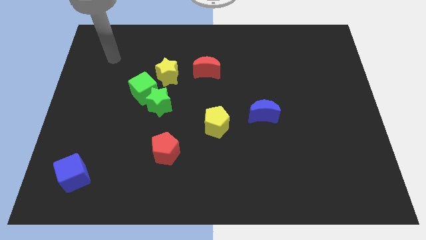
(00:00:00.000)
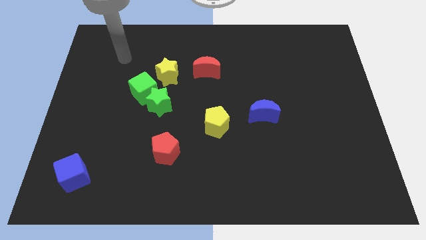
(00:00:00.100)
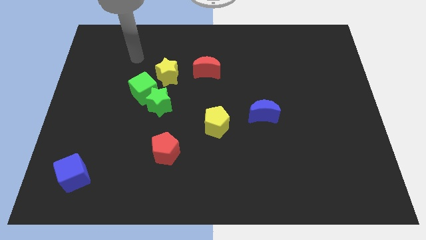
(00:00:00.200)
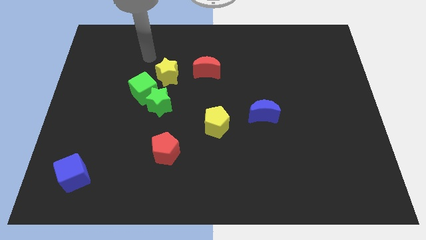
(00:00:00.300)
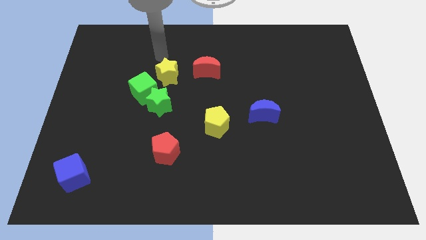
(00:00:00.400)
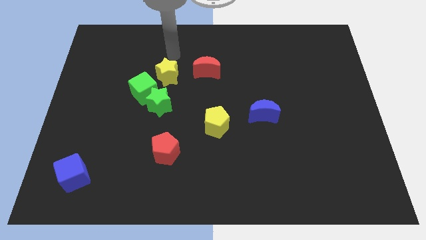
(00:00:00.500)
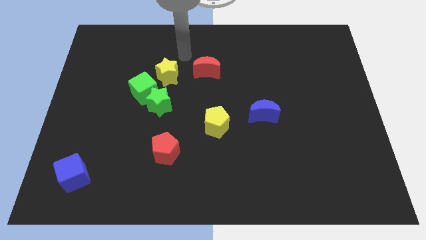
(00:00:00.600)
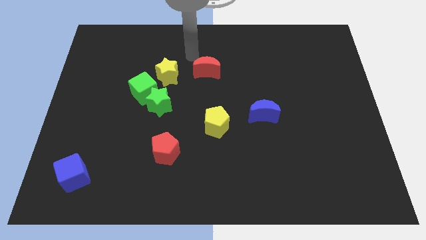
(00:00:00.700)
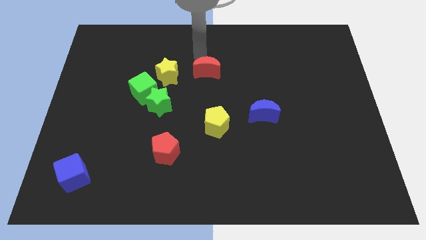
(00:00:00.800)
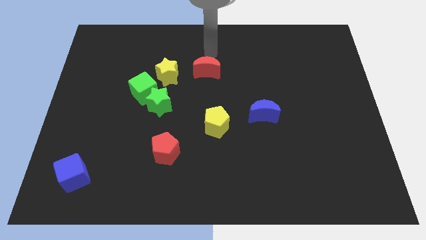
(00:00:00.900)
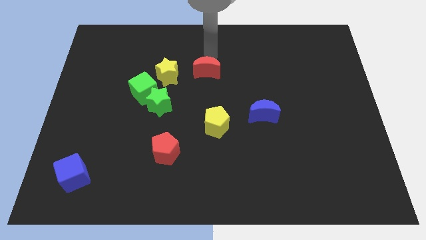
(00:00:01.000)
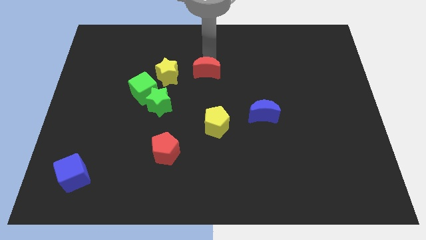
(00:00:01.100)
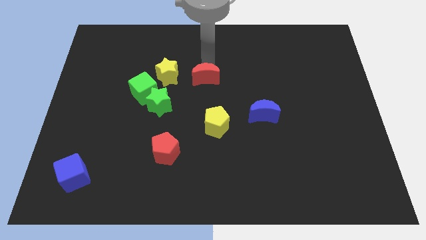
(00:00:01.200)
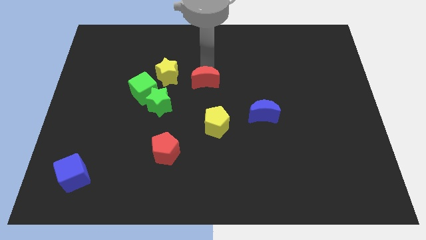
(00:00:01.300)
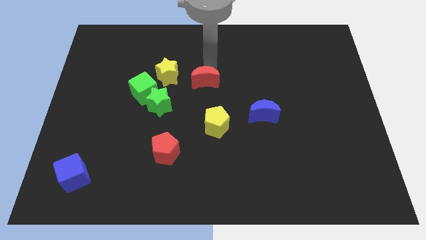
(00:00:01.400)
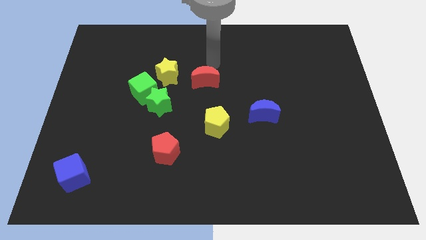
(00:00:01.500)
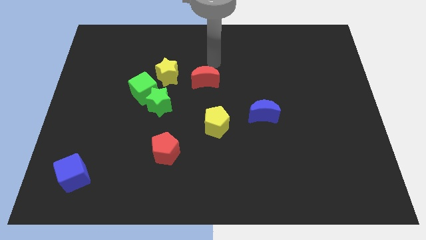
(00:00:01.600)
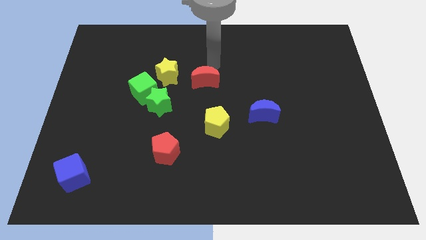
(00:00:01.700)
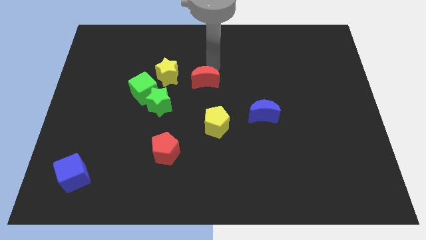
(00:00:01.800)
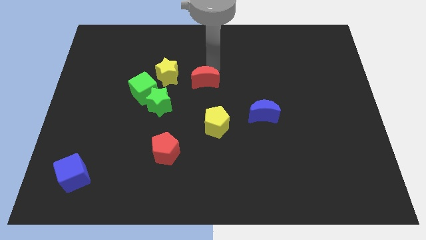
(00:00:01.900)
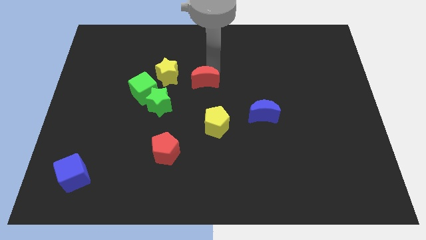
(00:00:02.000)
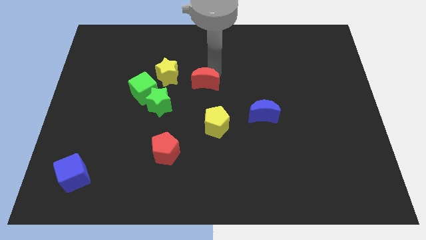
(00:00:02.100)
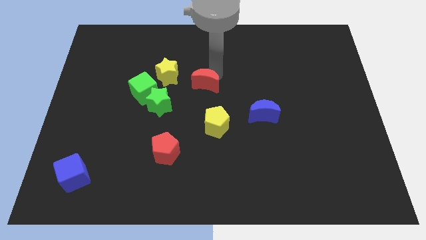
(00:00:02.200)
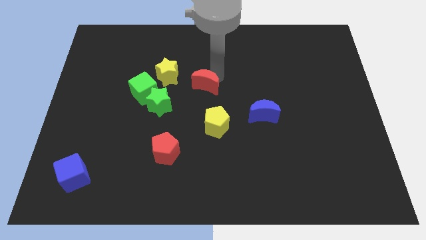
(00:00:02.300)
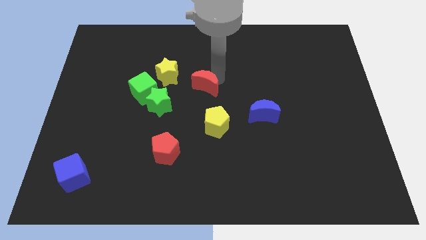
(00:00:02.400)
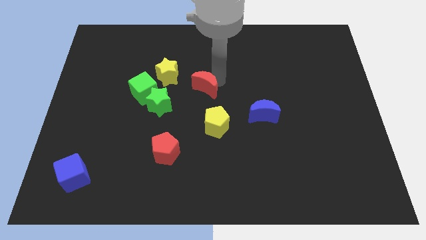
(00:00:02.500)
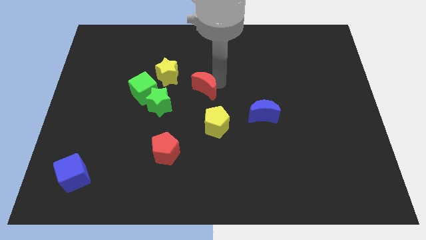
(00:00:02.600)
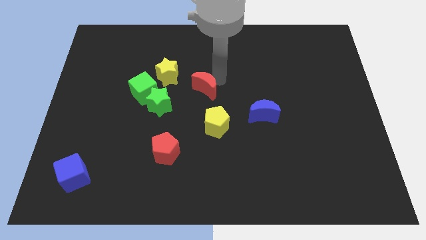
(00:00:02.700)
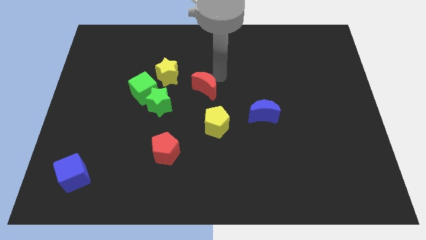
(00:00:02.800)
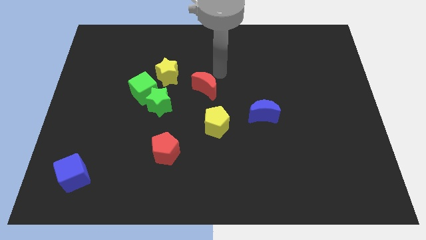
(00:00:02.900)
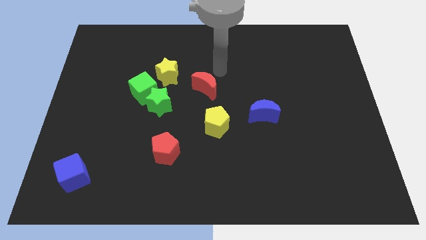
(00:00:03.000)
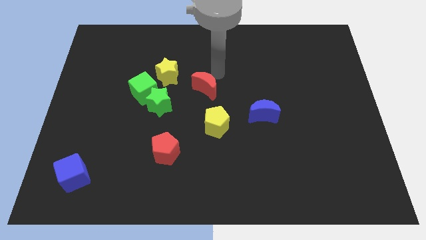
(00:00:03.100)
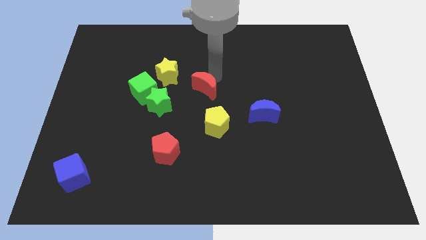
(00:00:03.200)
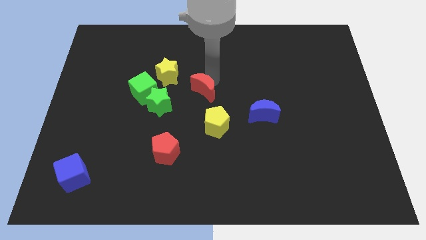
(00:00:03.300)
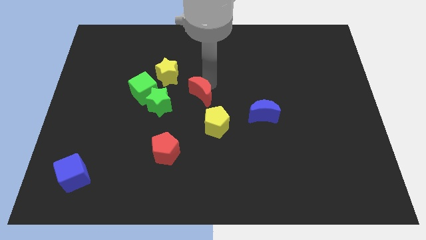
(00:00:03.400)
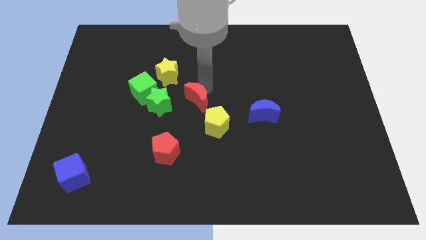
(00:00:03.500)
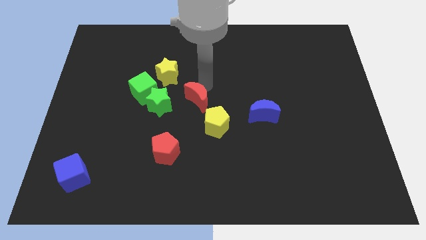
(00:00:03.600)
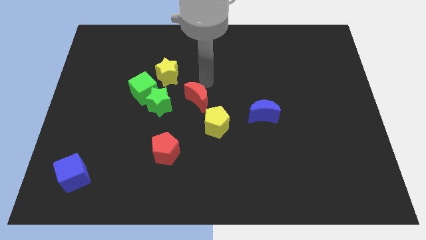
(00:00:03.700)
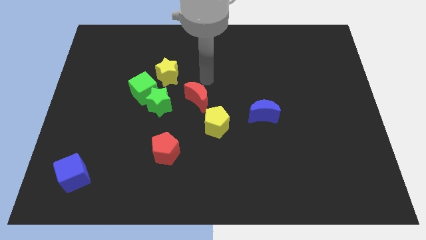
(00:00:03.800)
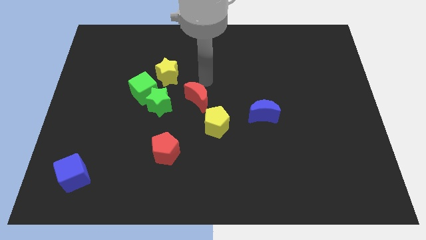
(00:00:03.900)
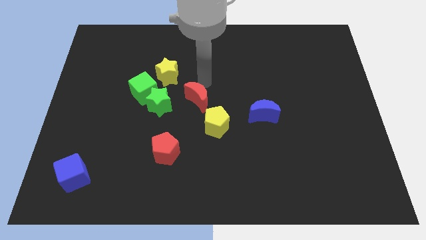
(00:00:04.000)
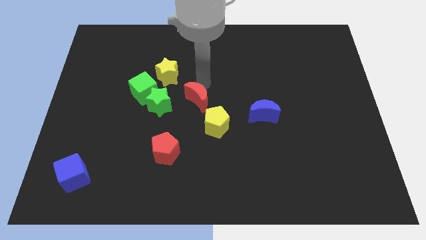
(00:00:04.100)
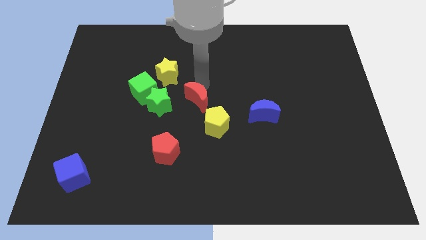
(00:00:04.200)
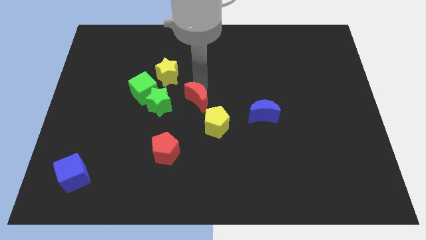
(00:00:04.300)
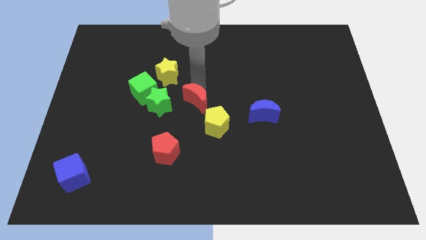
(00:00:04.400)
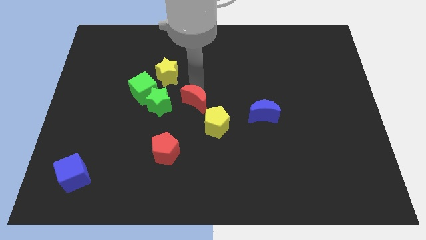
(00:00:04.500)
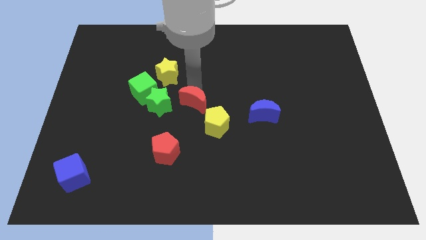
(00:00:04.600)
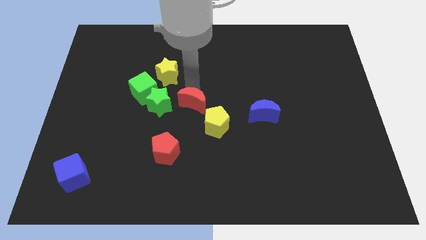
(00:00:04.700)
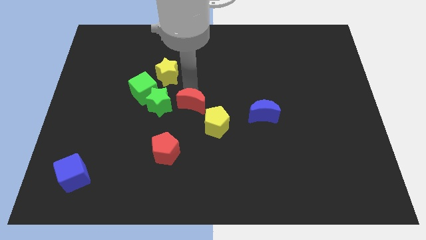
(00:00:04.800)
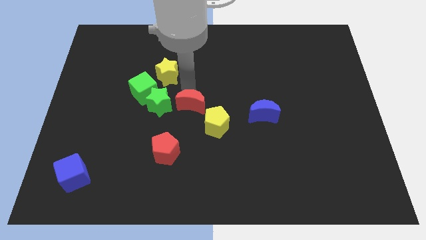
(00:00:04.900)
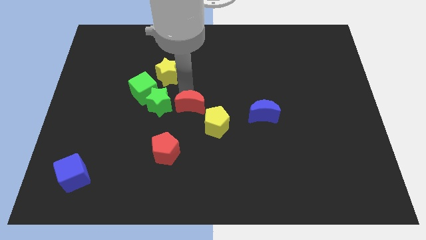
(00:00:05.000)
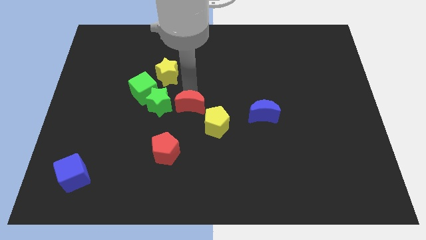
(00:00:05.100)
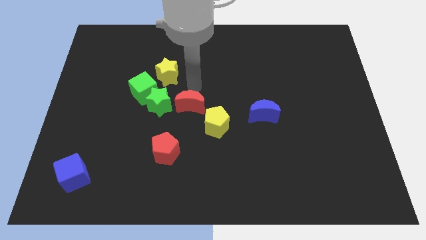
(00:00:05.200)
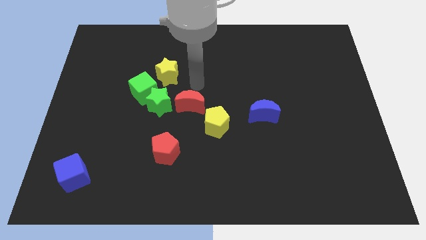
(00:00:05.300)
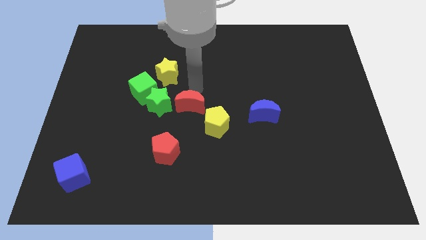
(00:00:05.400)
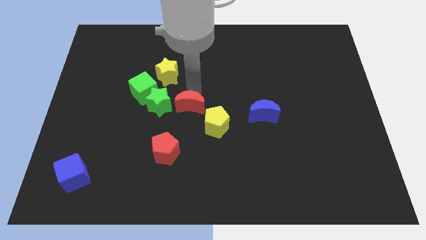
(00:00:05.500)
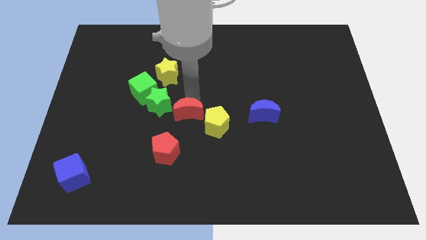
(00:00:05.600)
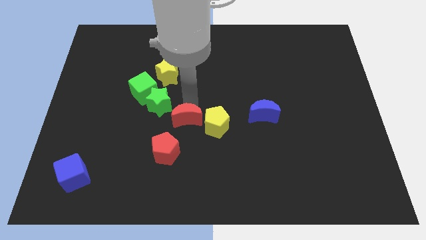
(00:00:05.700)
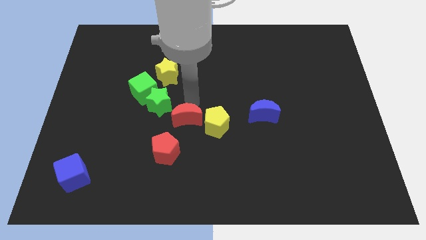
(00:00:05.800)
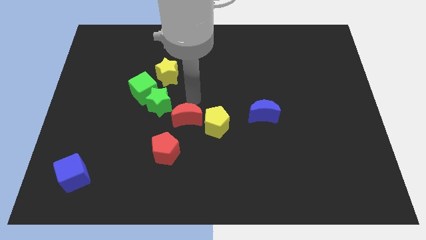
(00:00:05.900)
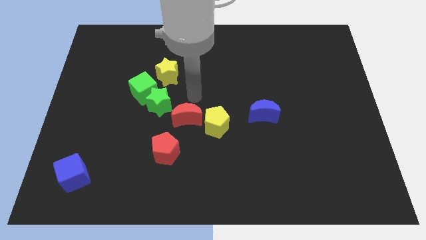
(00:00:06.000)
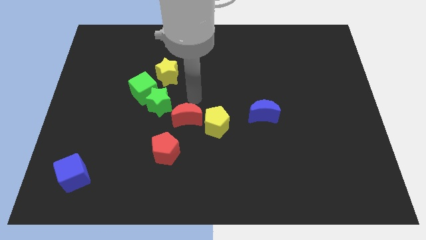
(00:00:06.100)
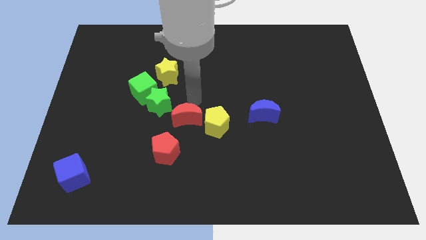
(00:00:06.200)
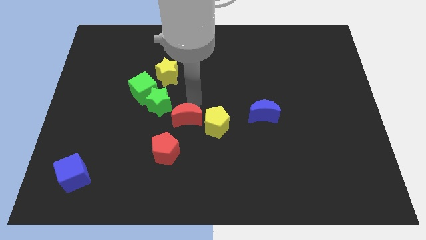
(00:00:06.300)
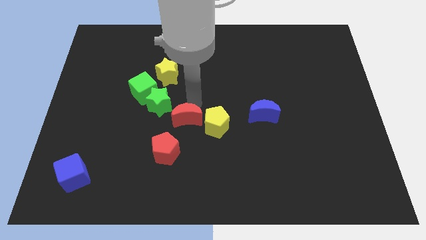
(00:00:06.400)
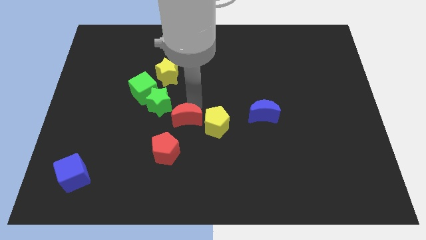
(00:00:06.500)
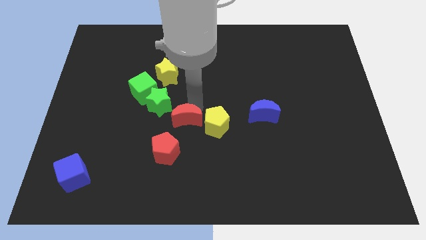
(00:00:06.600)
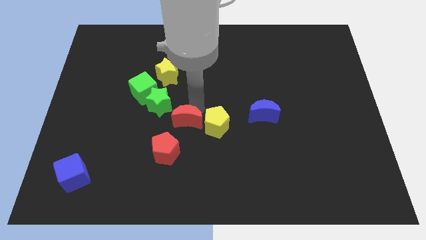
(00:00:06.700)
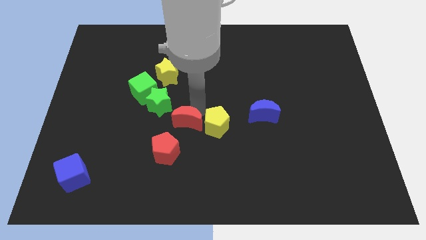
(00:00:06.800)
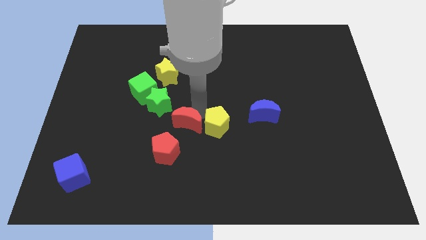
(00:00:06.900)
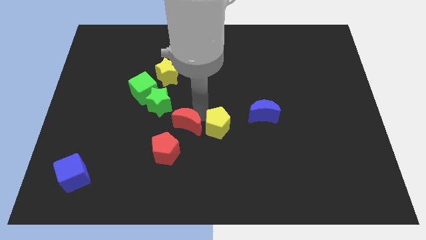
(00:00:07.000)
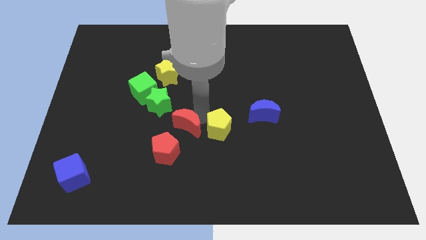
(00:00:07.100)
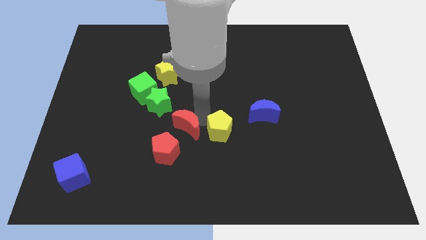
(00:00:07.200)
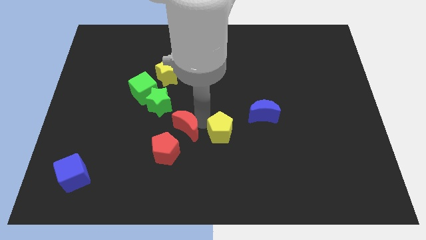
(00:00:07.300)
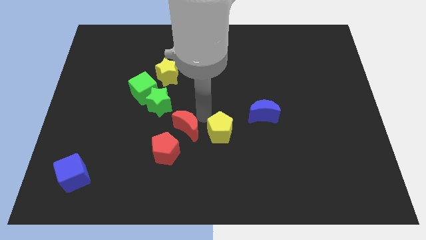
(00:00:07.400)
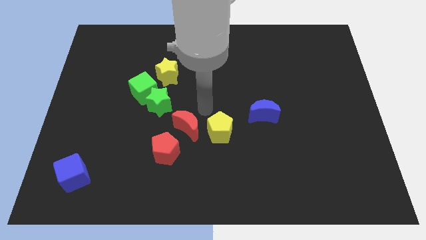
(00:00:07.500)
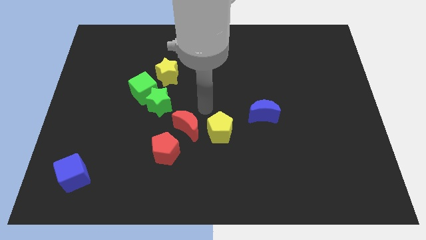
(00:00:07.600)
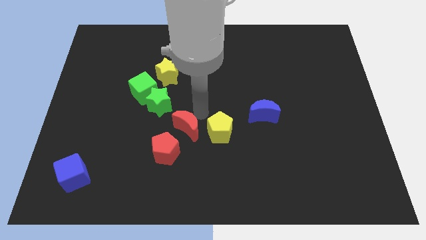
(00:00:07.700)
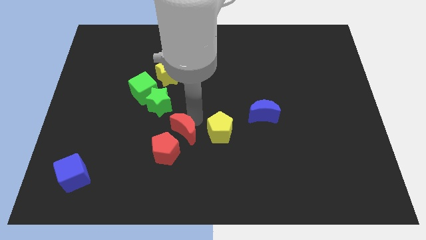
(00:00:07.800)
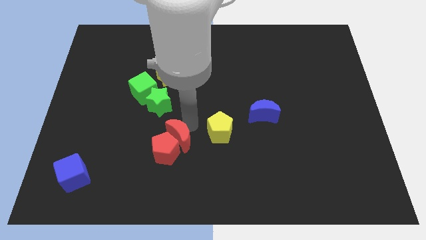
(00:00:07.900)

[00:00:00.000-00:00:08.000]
put the red moon to the red pentagon
